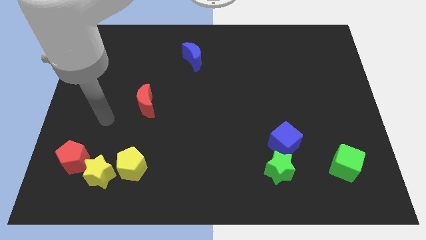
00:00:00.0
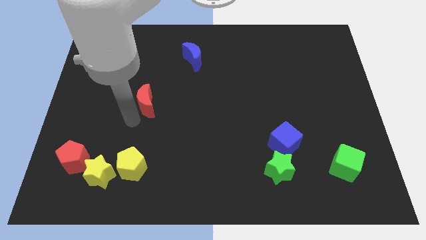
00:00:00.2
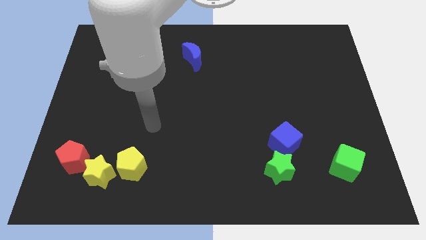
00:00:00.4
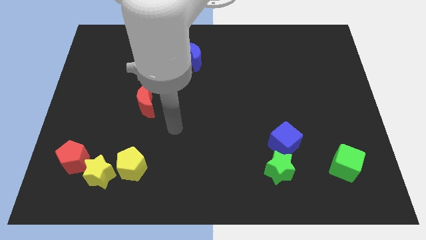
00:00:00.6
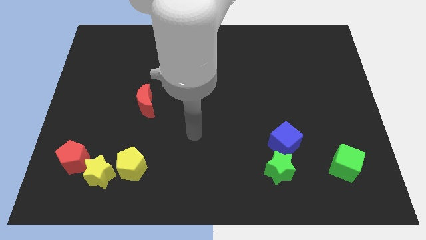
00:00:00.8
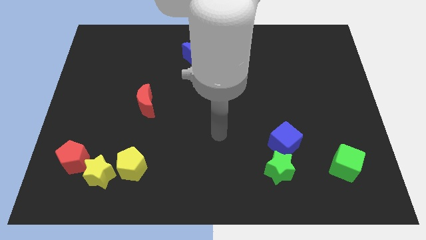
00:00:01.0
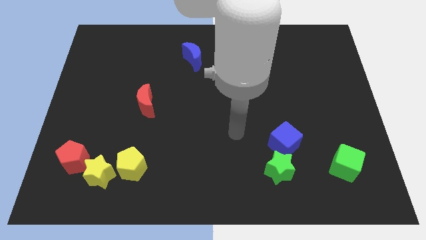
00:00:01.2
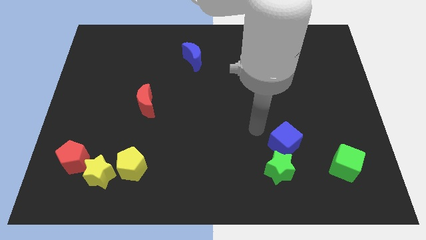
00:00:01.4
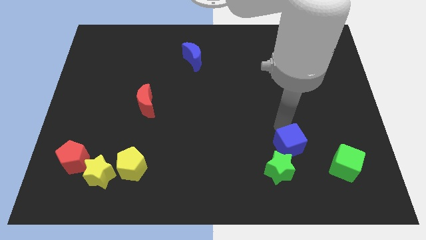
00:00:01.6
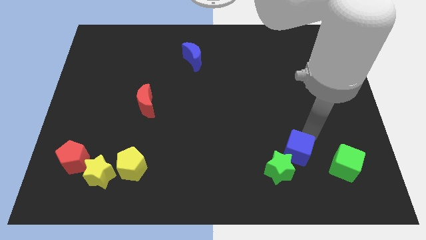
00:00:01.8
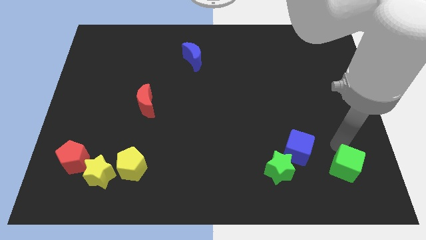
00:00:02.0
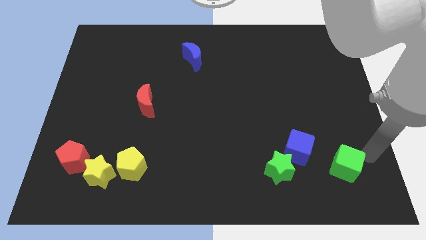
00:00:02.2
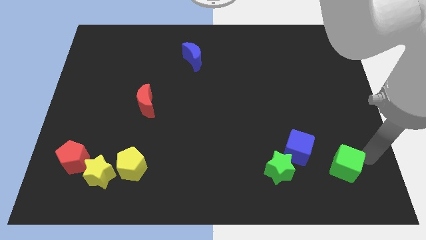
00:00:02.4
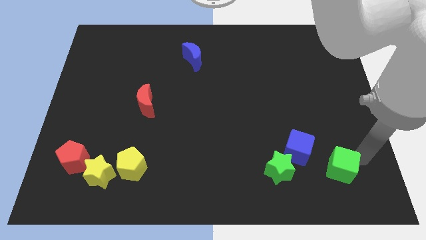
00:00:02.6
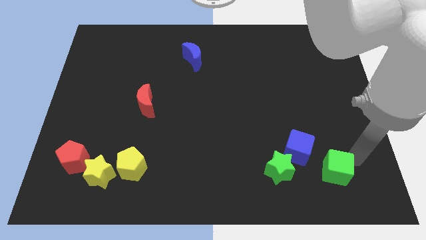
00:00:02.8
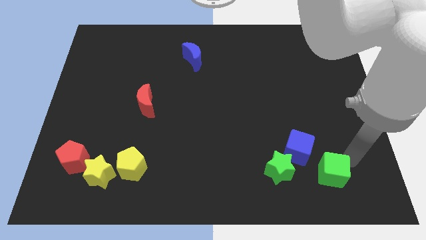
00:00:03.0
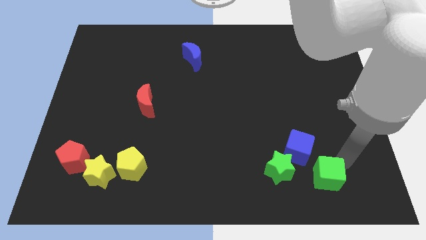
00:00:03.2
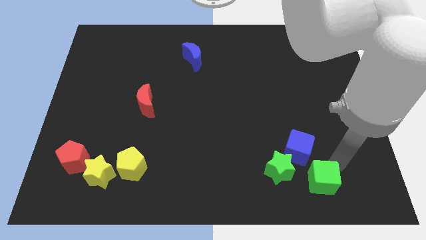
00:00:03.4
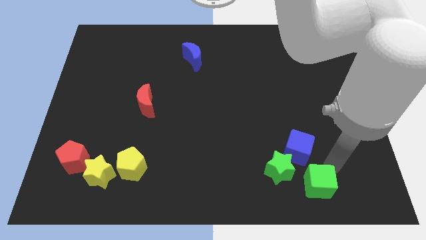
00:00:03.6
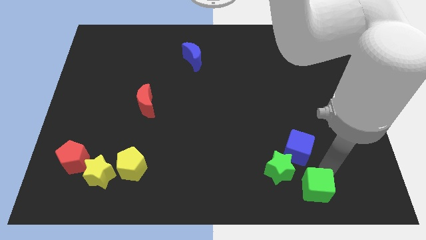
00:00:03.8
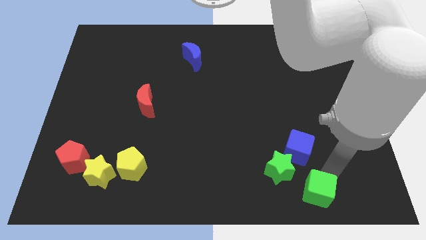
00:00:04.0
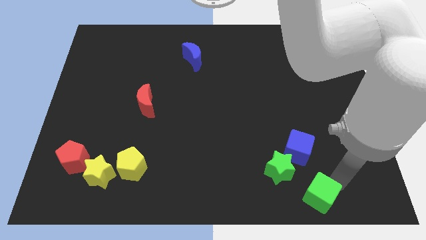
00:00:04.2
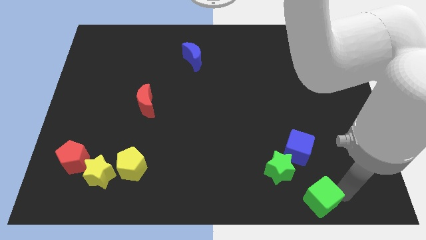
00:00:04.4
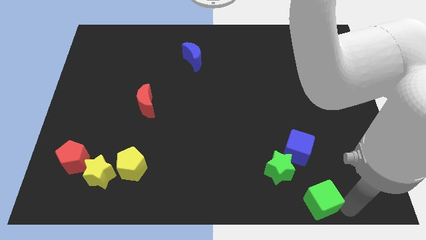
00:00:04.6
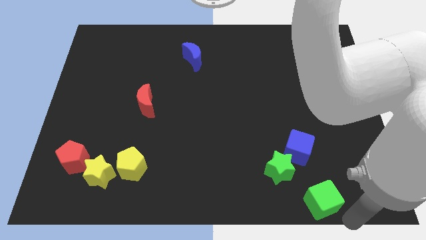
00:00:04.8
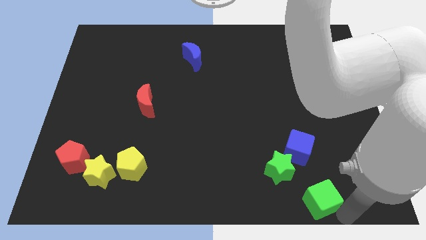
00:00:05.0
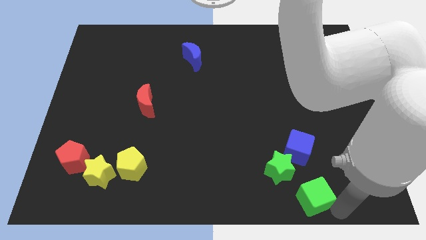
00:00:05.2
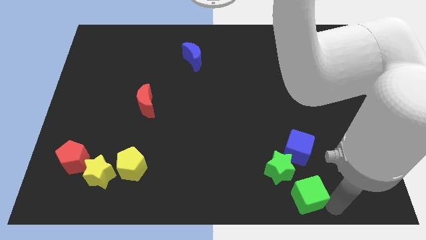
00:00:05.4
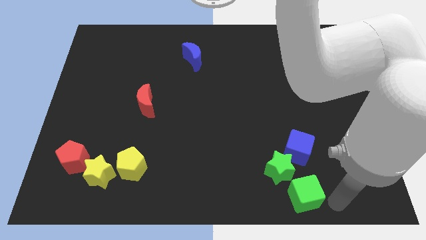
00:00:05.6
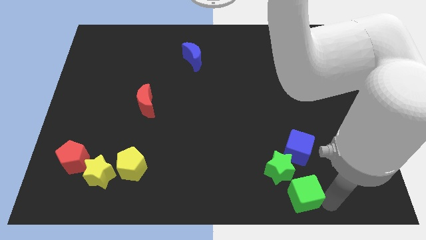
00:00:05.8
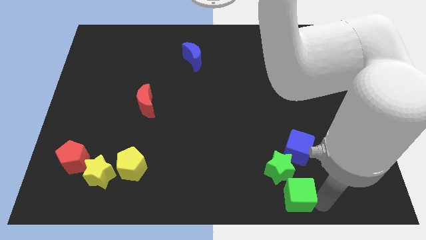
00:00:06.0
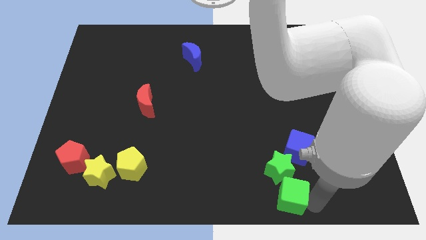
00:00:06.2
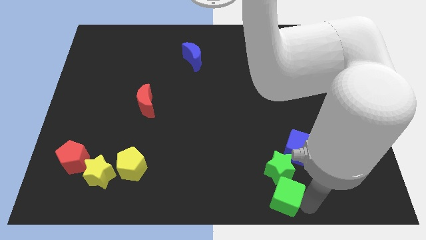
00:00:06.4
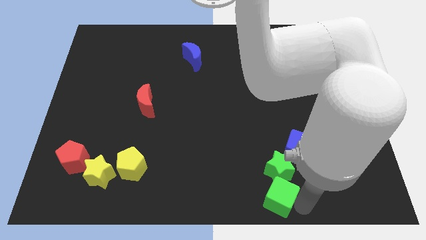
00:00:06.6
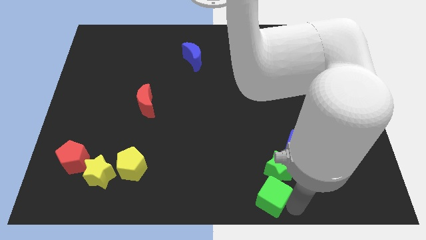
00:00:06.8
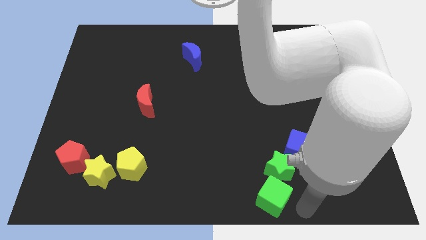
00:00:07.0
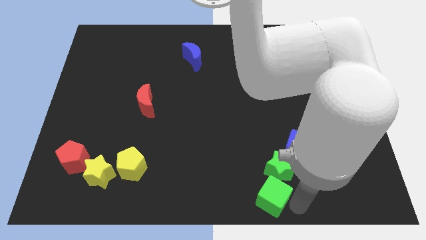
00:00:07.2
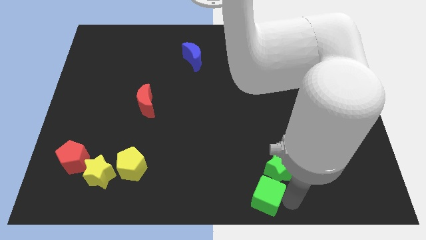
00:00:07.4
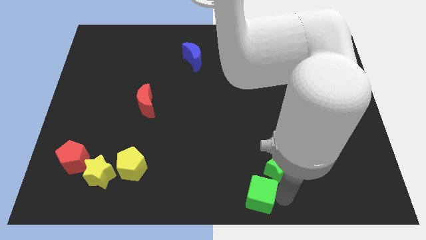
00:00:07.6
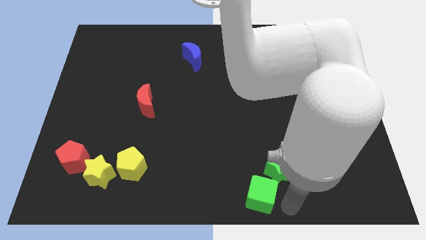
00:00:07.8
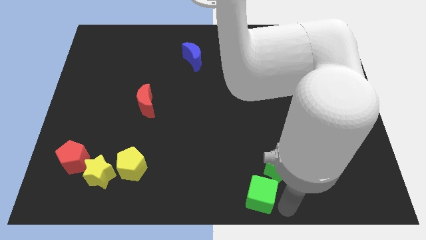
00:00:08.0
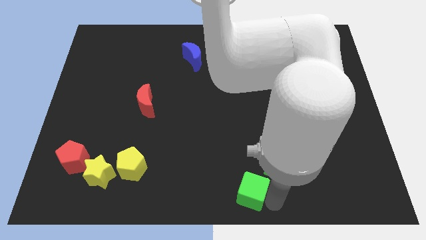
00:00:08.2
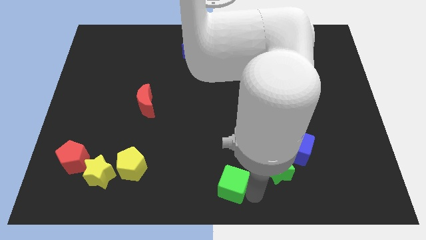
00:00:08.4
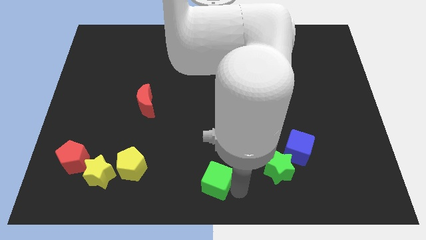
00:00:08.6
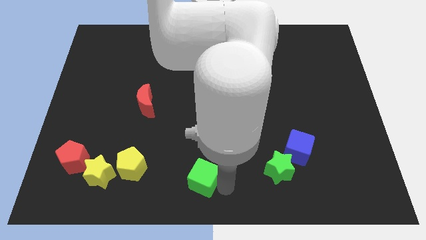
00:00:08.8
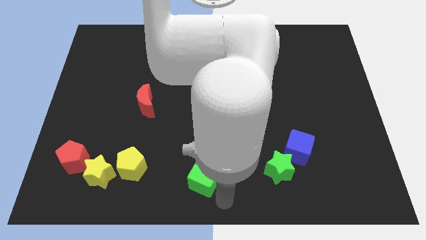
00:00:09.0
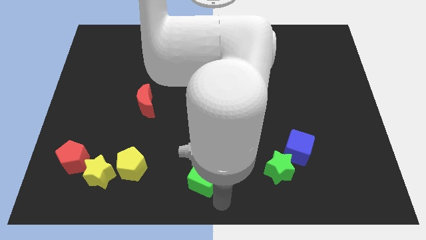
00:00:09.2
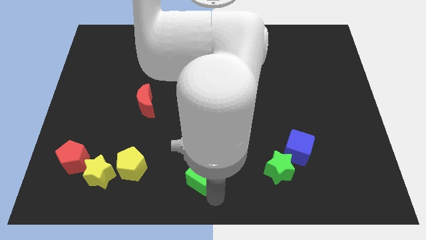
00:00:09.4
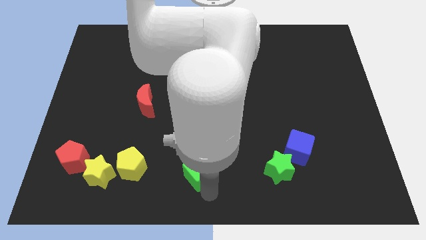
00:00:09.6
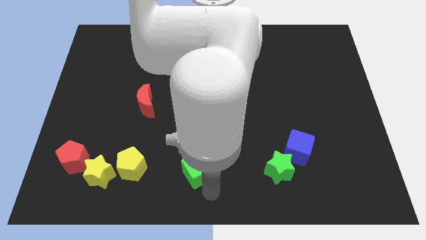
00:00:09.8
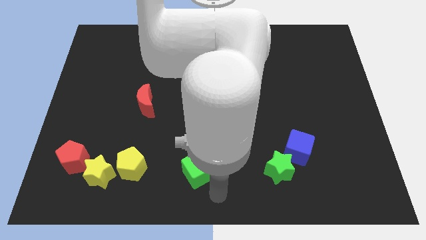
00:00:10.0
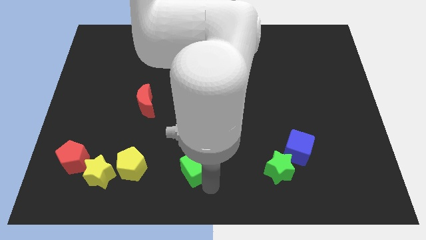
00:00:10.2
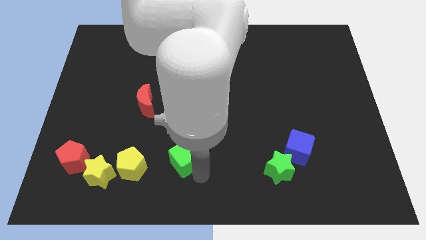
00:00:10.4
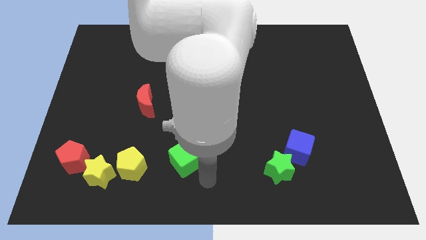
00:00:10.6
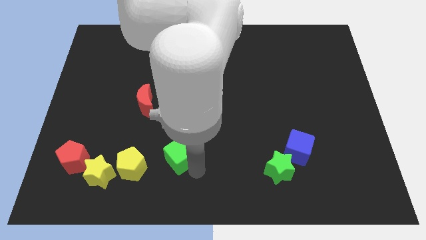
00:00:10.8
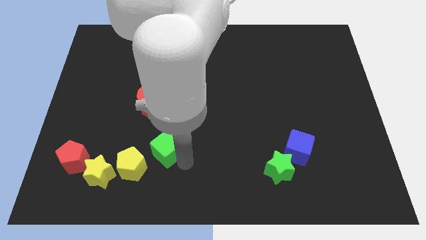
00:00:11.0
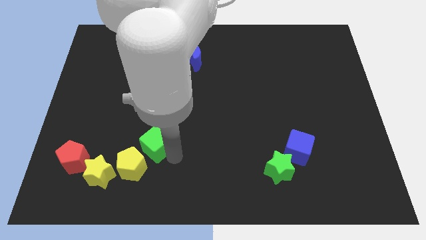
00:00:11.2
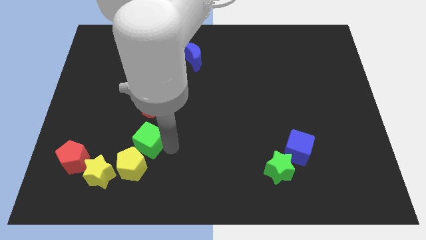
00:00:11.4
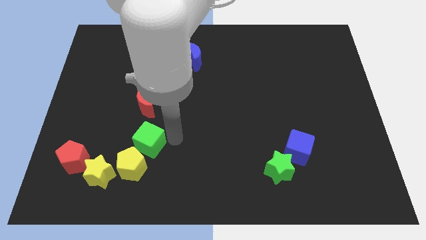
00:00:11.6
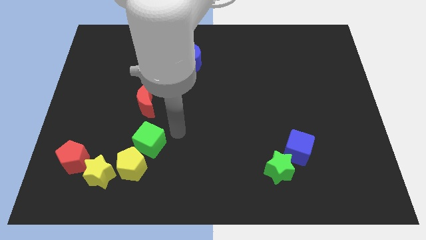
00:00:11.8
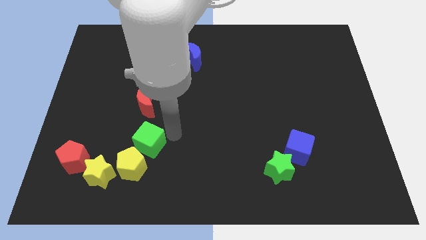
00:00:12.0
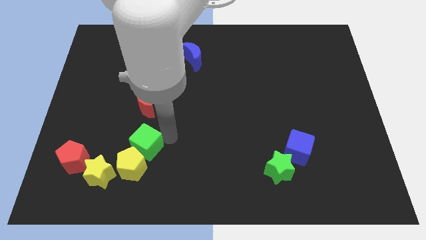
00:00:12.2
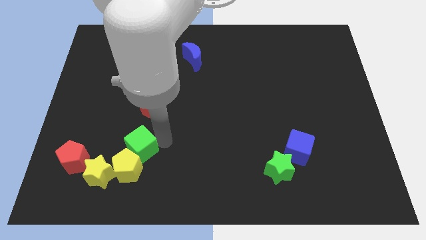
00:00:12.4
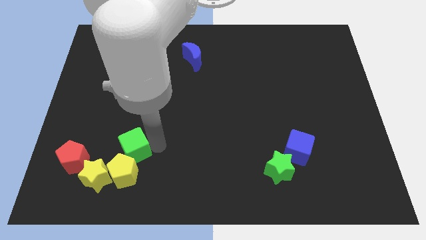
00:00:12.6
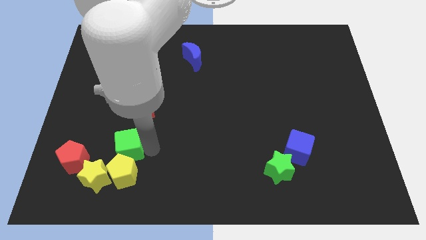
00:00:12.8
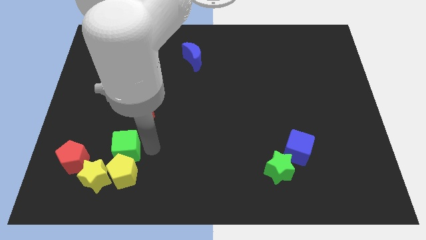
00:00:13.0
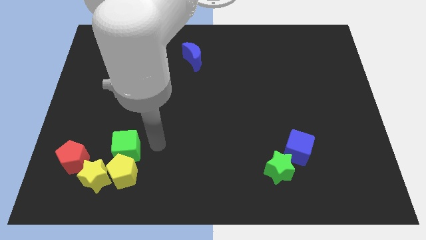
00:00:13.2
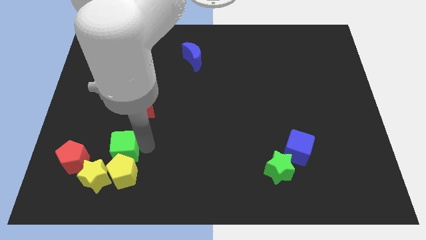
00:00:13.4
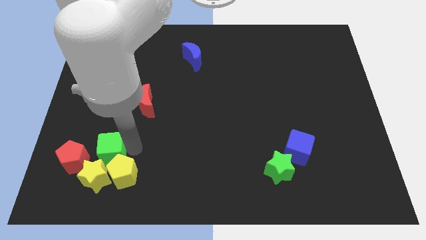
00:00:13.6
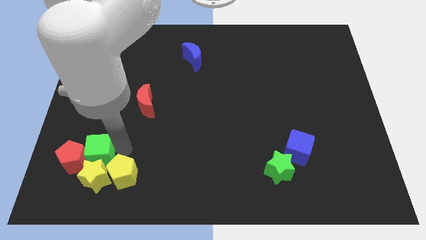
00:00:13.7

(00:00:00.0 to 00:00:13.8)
push the green cube next to the red pentagon

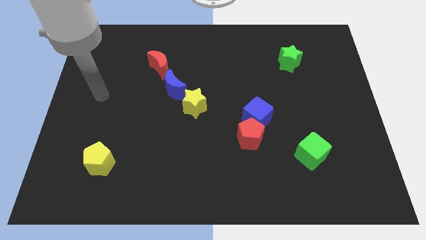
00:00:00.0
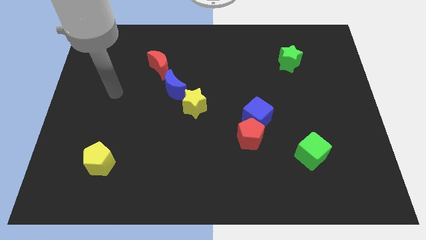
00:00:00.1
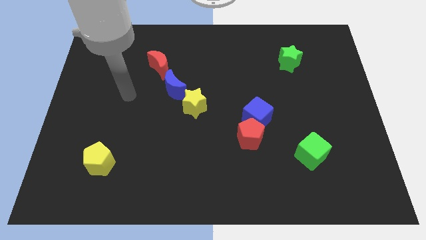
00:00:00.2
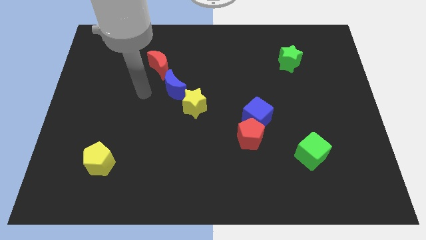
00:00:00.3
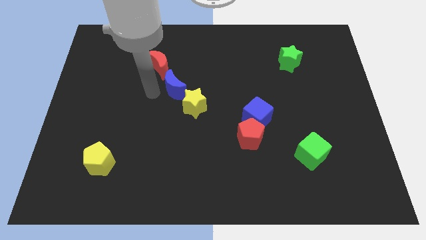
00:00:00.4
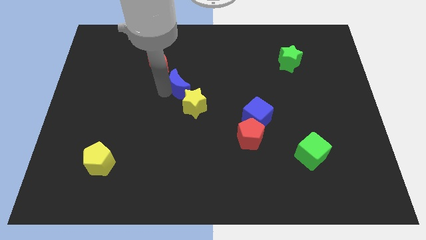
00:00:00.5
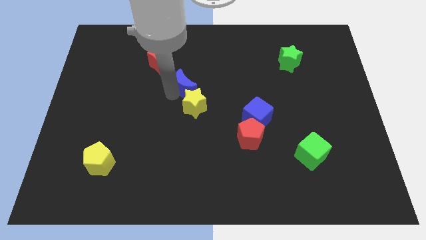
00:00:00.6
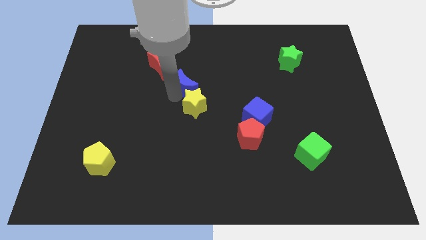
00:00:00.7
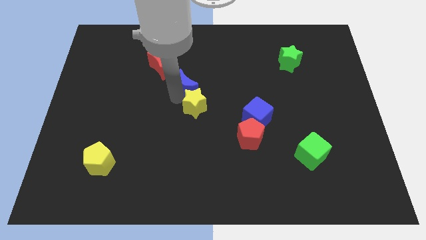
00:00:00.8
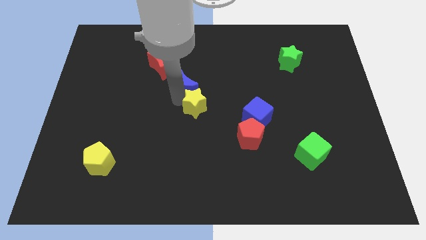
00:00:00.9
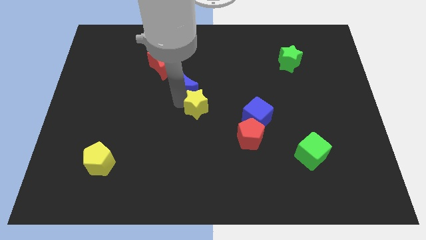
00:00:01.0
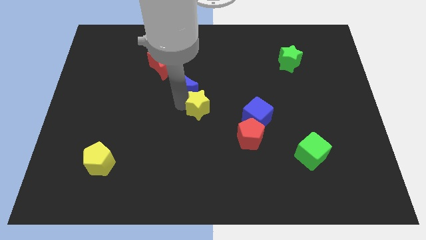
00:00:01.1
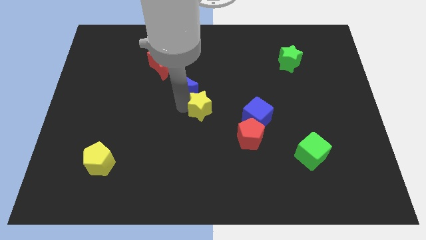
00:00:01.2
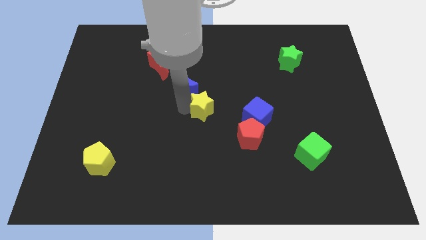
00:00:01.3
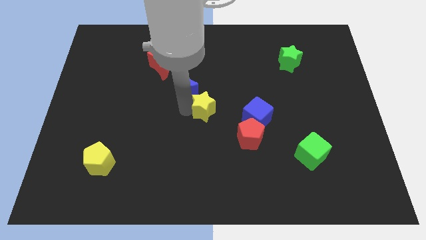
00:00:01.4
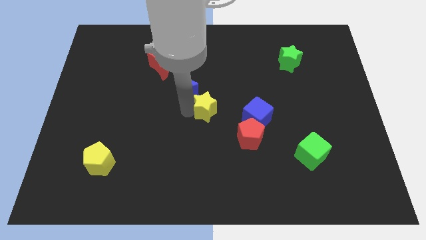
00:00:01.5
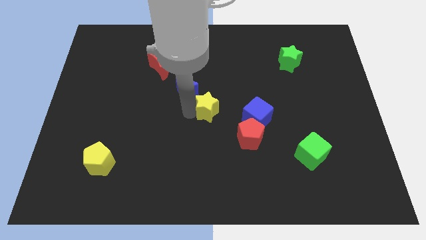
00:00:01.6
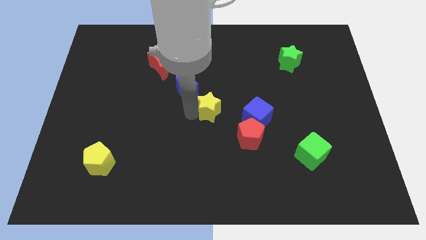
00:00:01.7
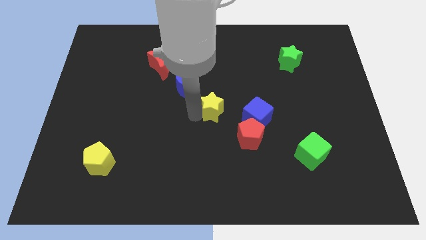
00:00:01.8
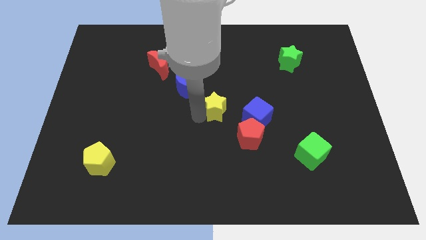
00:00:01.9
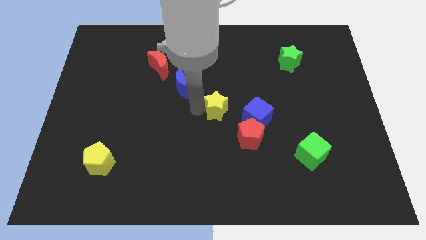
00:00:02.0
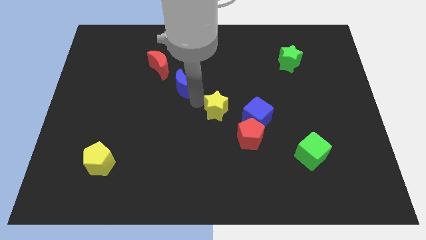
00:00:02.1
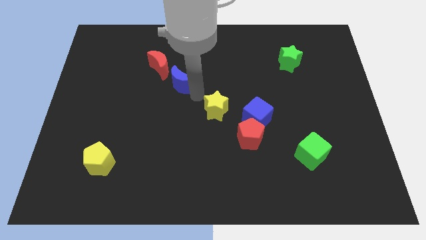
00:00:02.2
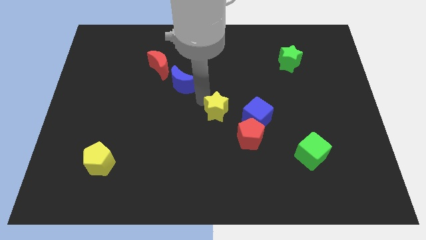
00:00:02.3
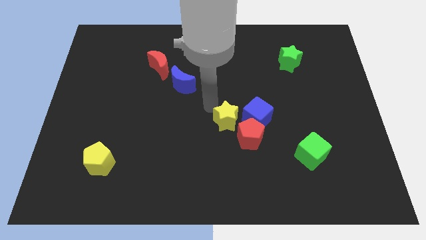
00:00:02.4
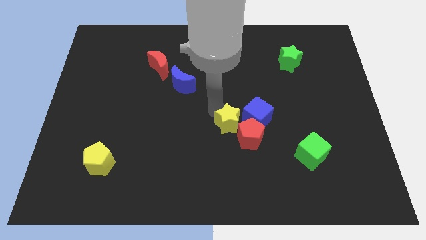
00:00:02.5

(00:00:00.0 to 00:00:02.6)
put the yellow star close to the red pentagon
